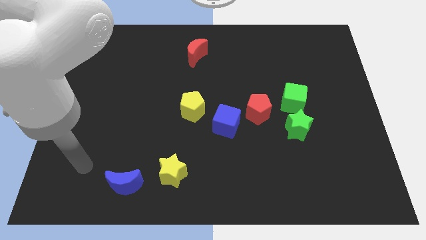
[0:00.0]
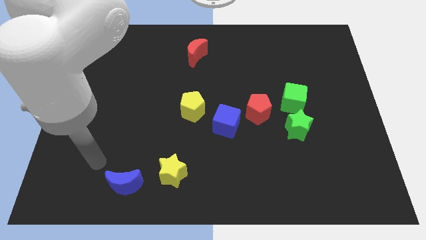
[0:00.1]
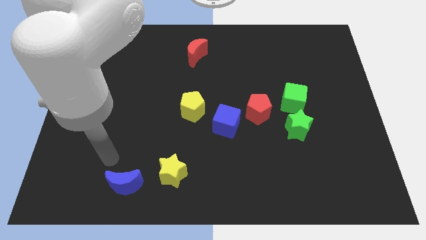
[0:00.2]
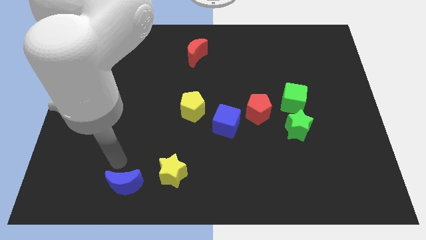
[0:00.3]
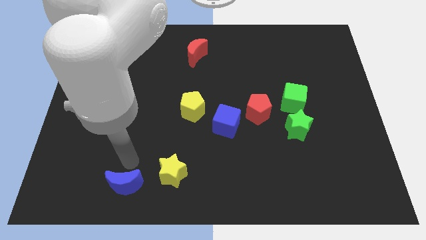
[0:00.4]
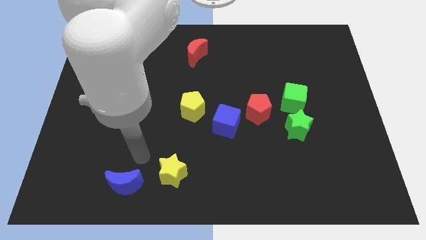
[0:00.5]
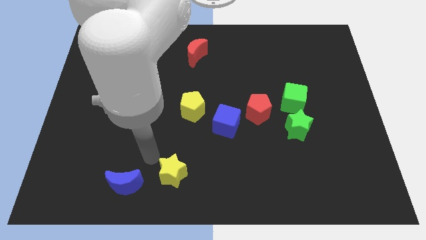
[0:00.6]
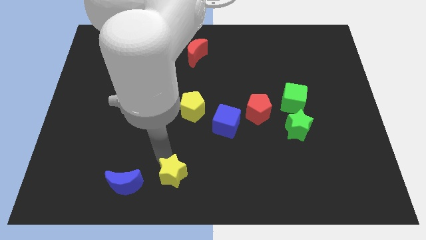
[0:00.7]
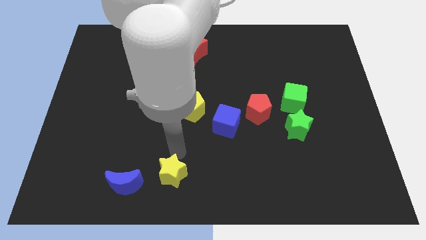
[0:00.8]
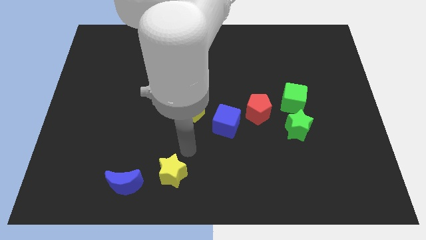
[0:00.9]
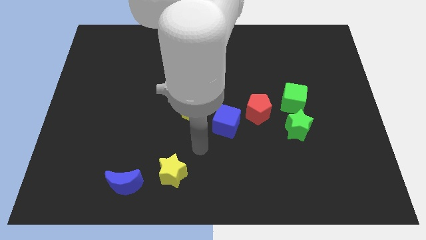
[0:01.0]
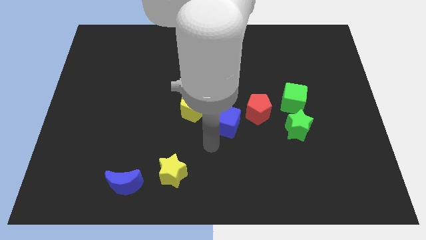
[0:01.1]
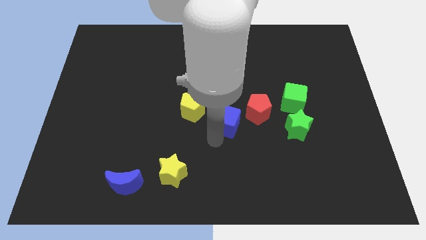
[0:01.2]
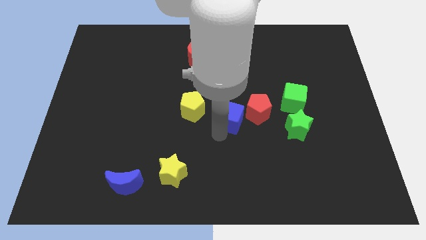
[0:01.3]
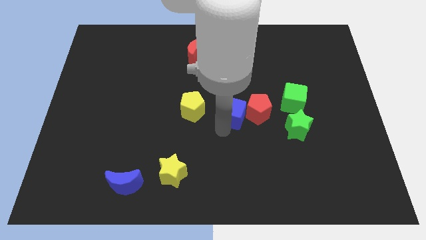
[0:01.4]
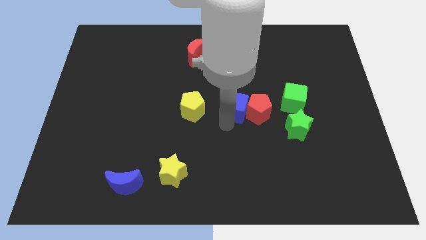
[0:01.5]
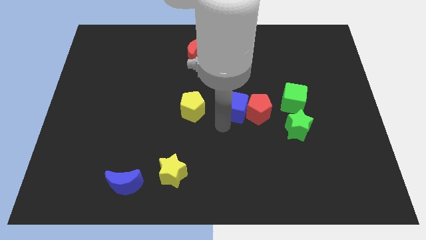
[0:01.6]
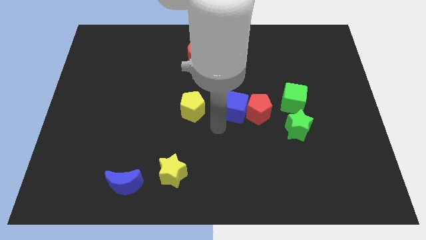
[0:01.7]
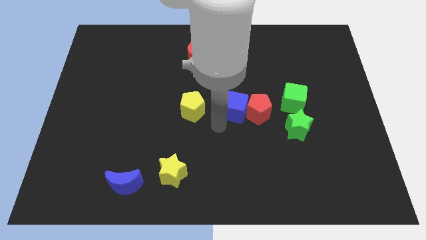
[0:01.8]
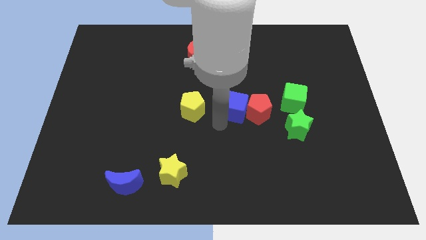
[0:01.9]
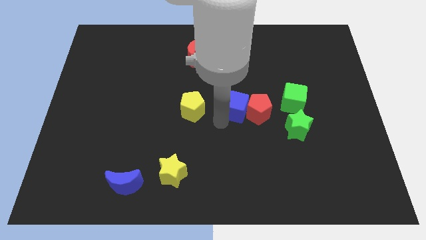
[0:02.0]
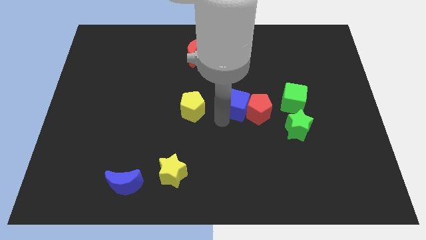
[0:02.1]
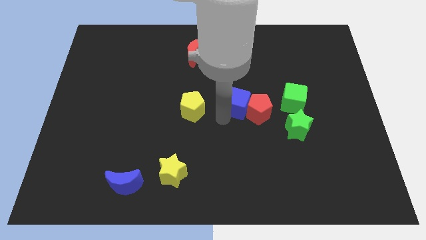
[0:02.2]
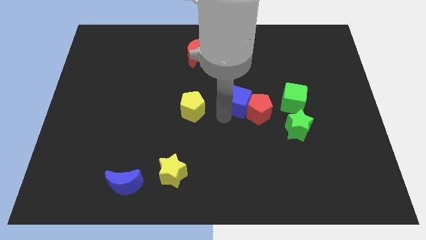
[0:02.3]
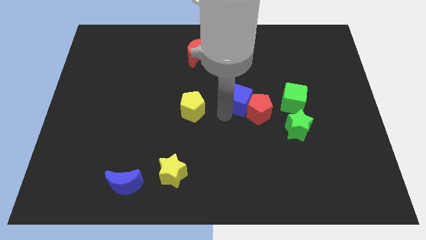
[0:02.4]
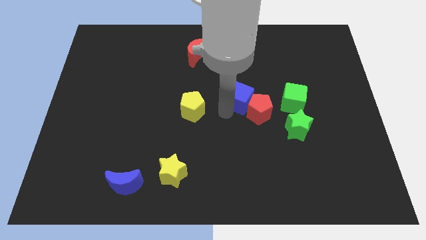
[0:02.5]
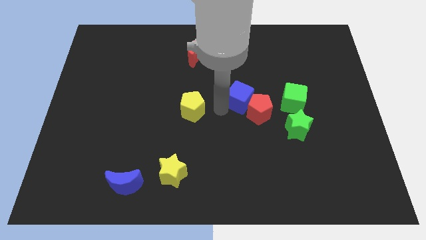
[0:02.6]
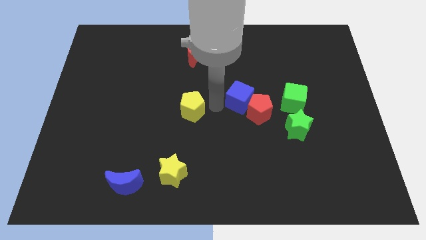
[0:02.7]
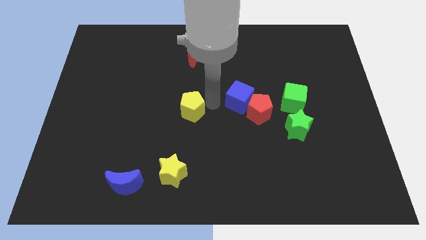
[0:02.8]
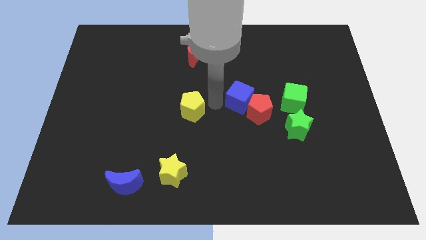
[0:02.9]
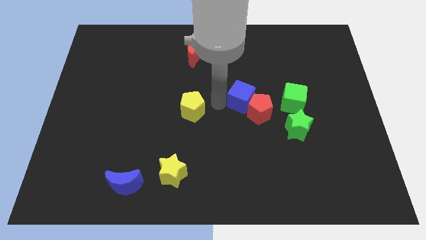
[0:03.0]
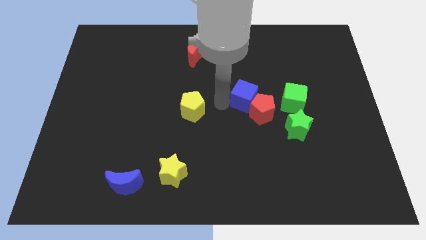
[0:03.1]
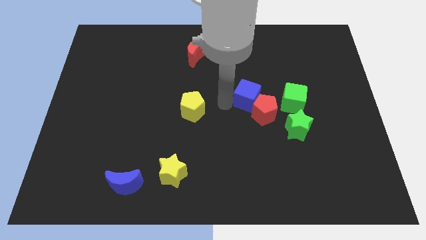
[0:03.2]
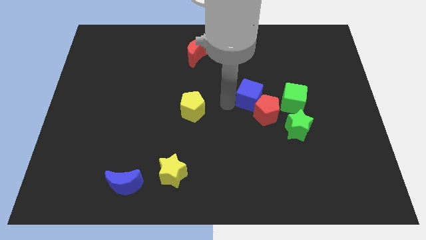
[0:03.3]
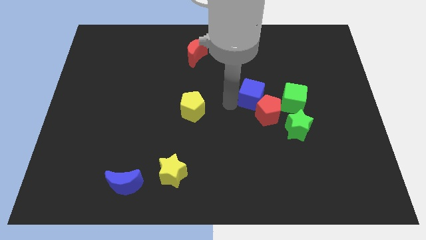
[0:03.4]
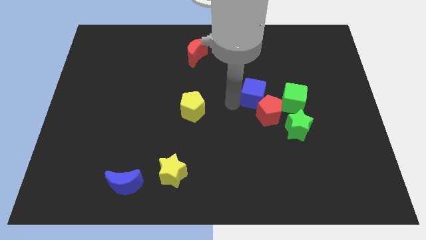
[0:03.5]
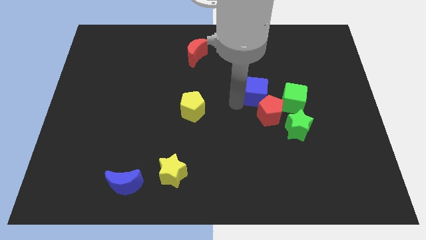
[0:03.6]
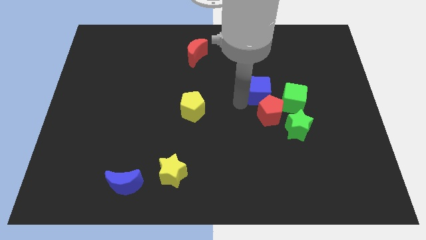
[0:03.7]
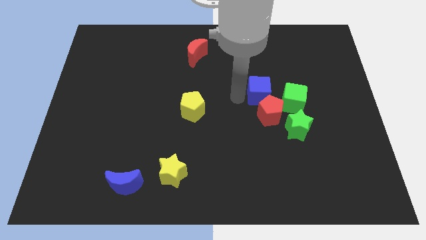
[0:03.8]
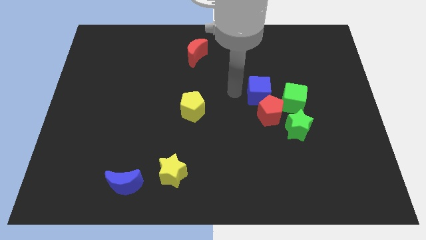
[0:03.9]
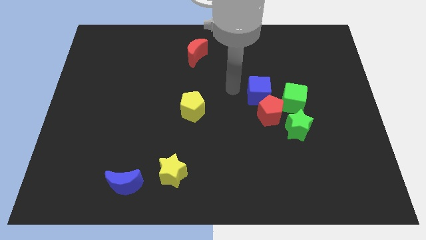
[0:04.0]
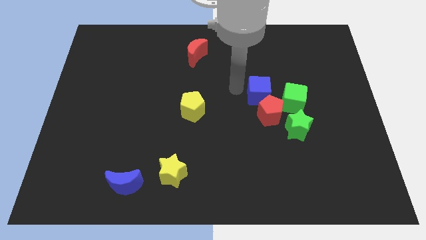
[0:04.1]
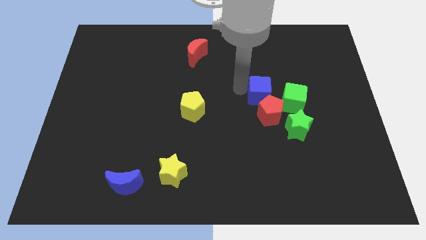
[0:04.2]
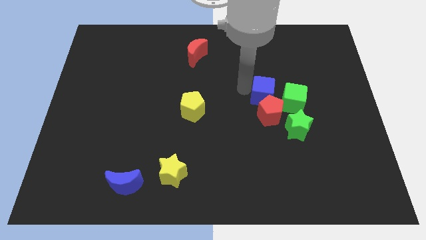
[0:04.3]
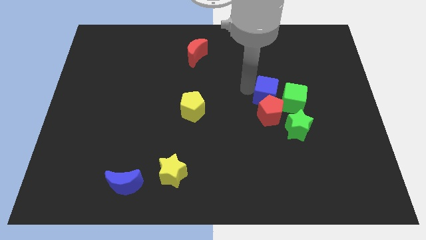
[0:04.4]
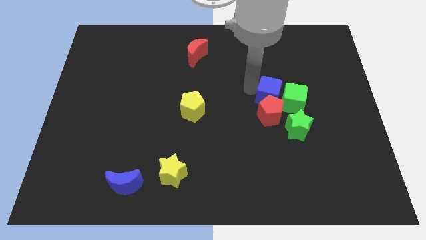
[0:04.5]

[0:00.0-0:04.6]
push the blue cube towards the green cube

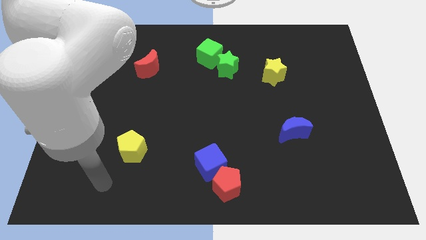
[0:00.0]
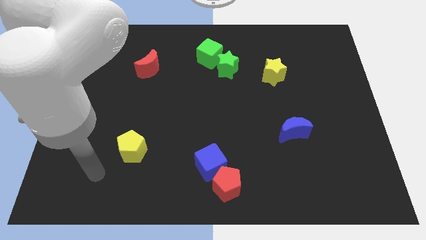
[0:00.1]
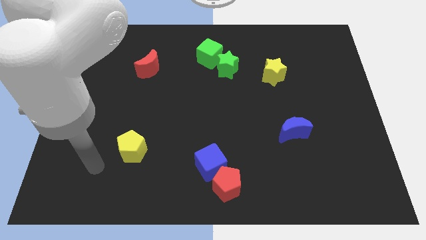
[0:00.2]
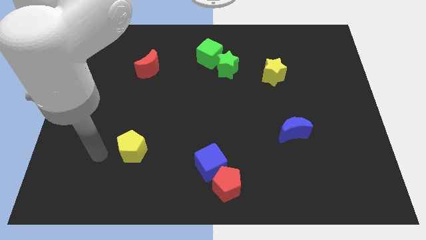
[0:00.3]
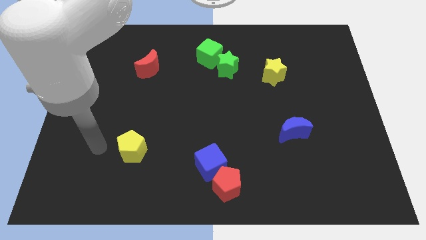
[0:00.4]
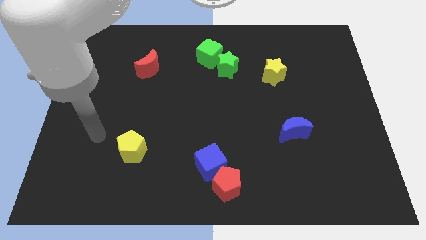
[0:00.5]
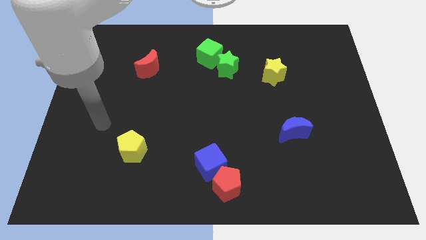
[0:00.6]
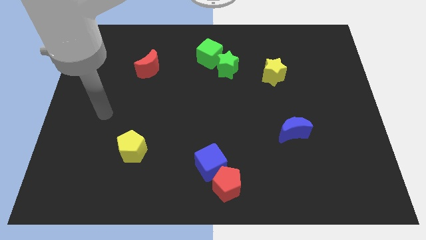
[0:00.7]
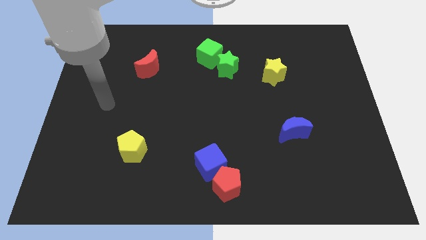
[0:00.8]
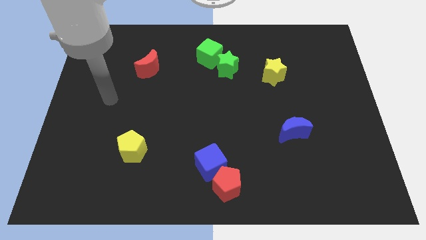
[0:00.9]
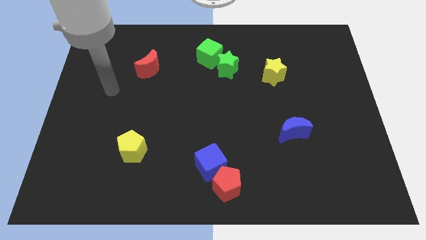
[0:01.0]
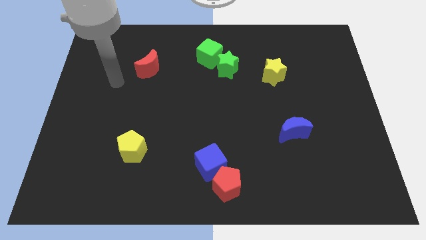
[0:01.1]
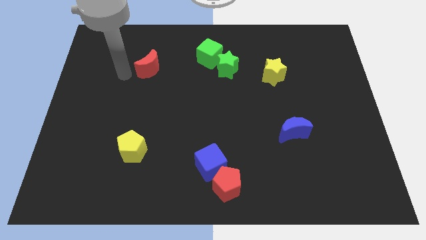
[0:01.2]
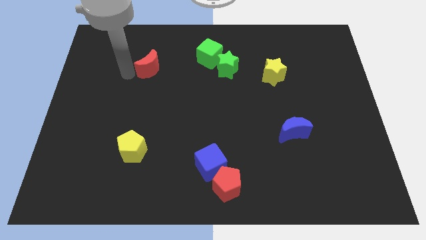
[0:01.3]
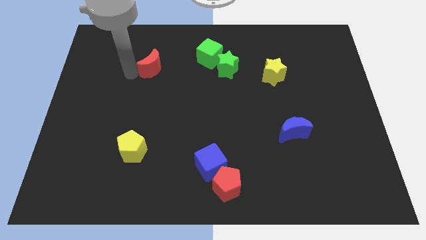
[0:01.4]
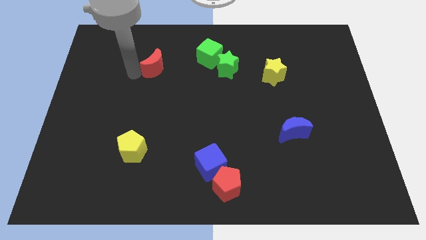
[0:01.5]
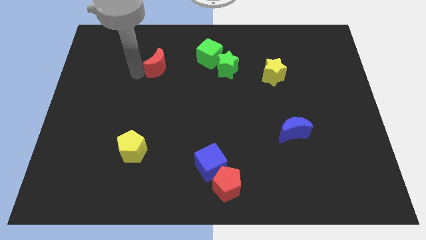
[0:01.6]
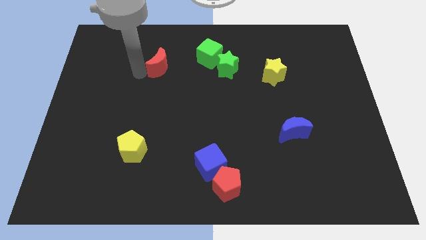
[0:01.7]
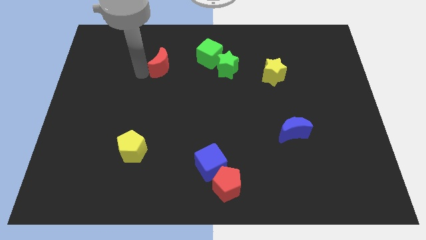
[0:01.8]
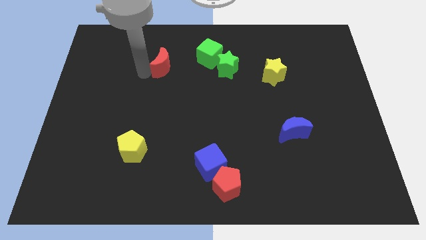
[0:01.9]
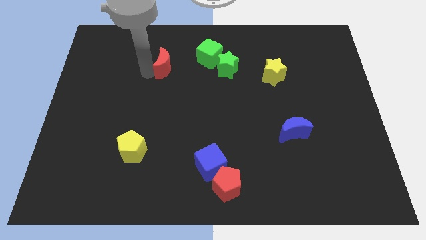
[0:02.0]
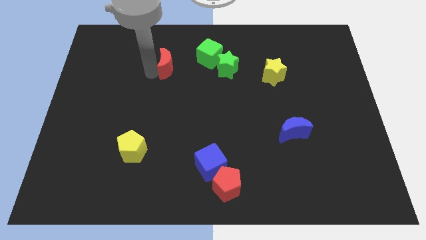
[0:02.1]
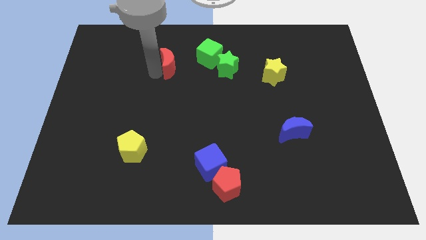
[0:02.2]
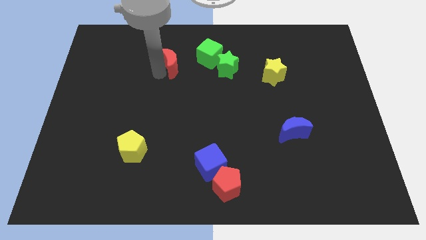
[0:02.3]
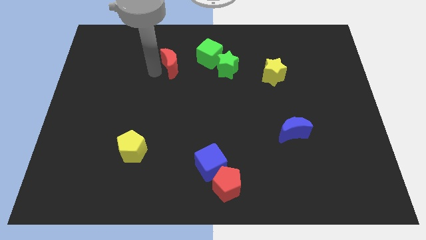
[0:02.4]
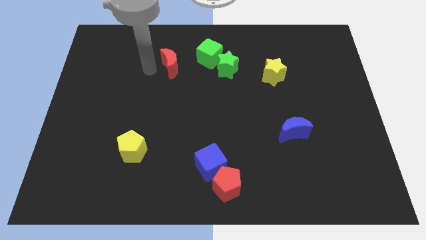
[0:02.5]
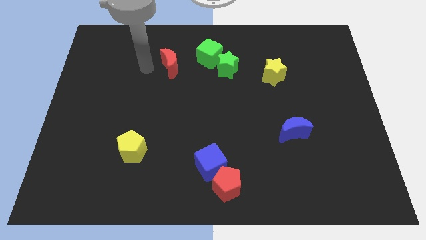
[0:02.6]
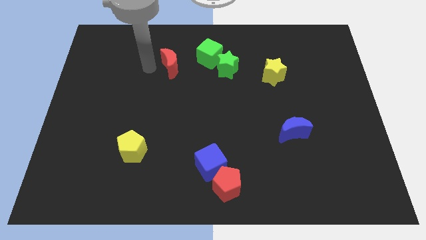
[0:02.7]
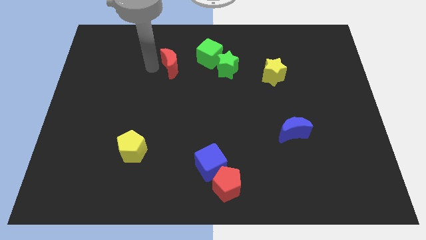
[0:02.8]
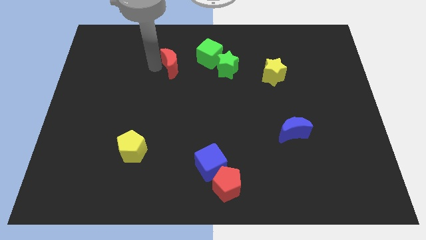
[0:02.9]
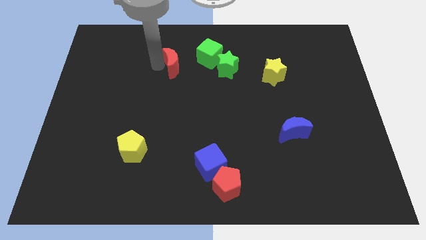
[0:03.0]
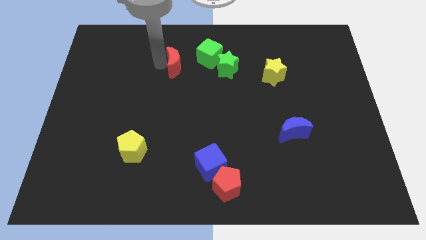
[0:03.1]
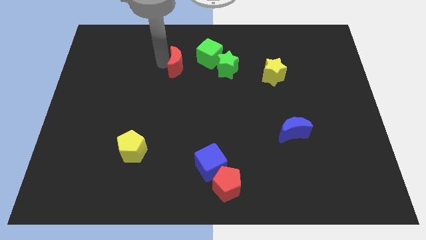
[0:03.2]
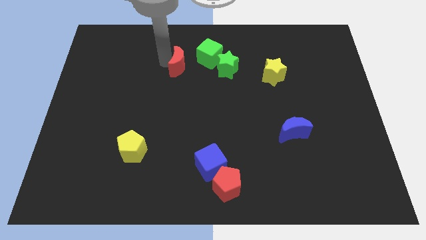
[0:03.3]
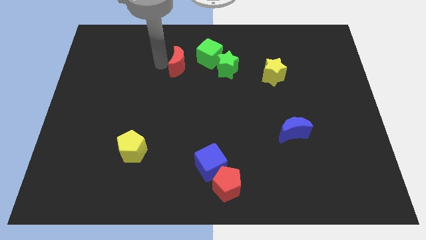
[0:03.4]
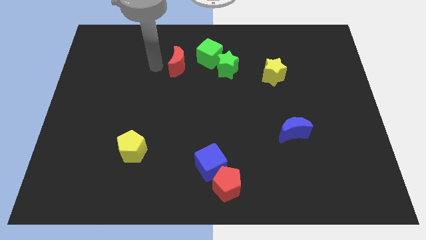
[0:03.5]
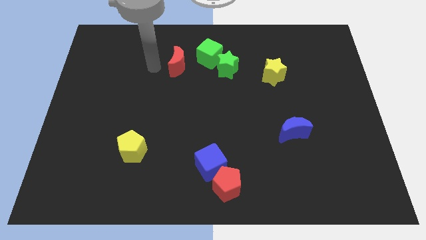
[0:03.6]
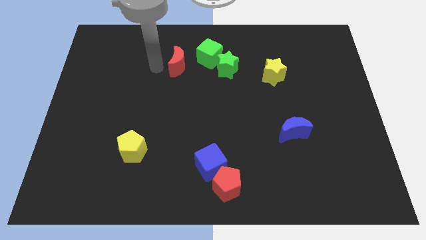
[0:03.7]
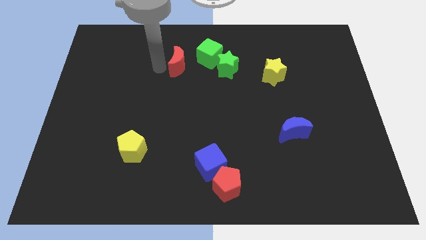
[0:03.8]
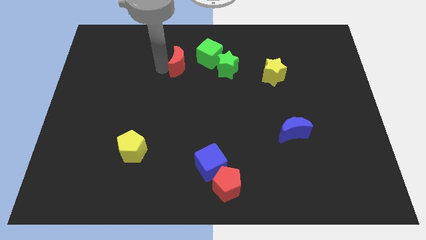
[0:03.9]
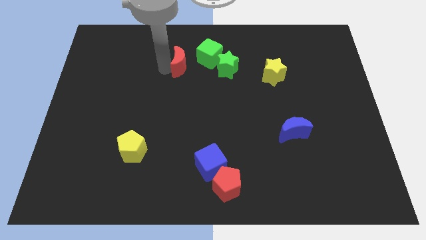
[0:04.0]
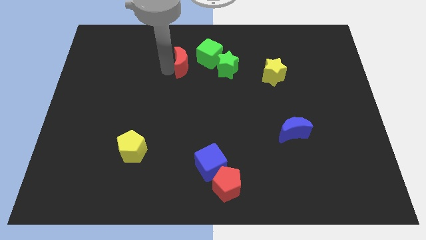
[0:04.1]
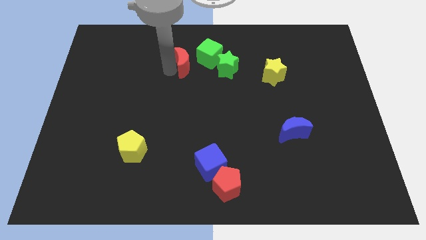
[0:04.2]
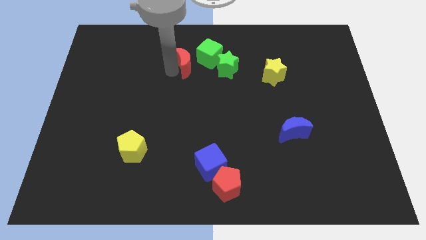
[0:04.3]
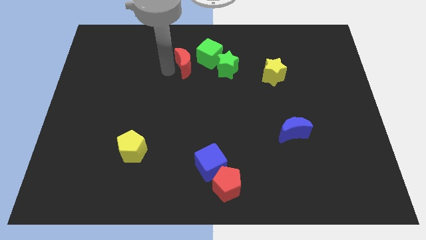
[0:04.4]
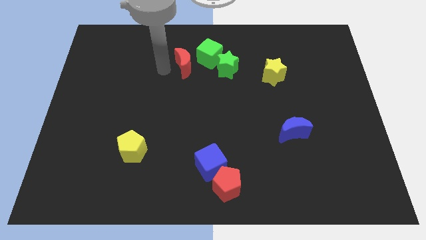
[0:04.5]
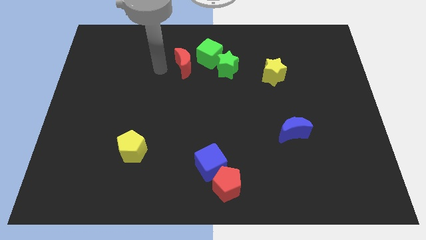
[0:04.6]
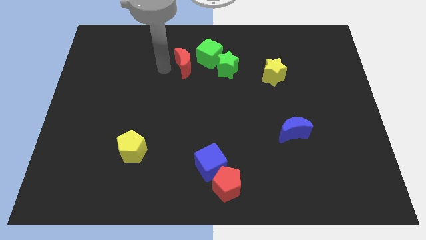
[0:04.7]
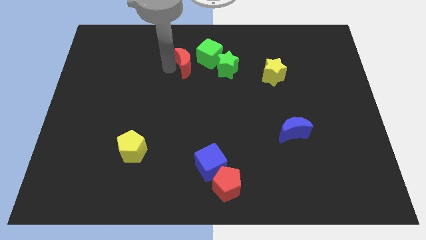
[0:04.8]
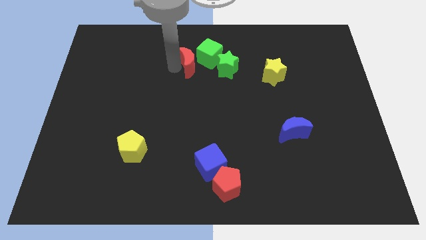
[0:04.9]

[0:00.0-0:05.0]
push the red moon close to the green cube
